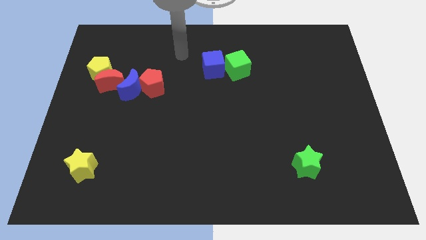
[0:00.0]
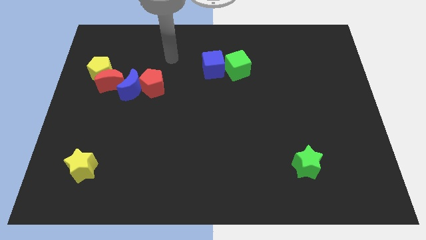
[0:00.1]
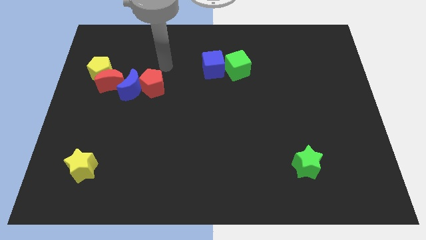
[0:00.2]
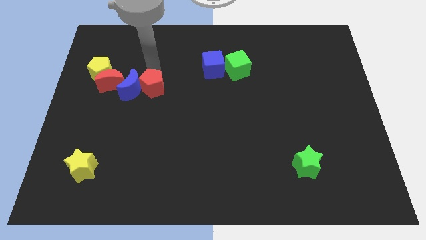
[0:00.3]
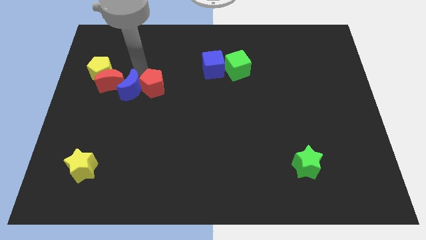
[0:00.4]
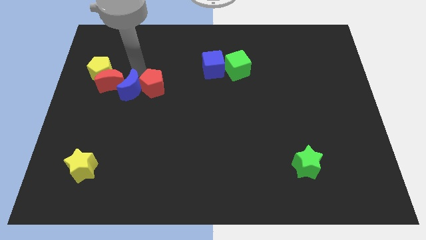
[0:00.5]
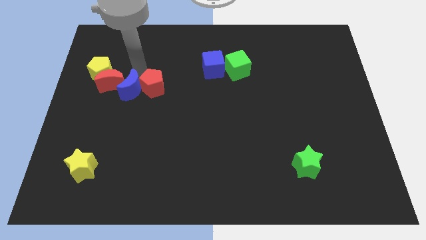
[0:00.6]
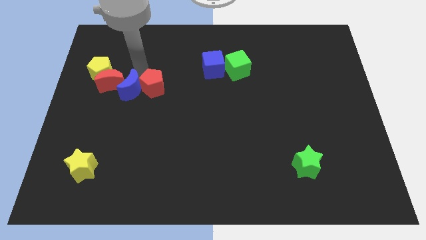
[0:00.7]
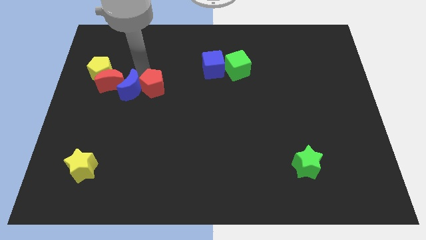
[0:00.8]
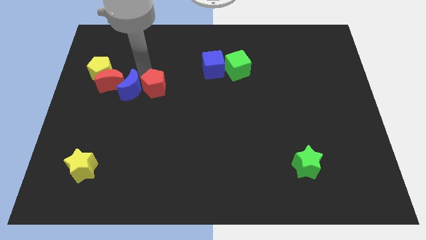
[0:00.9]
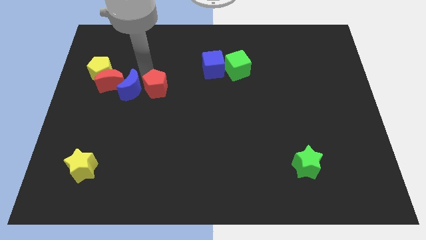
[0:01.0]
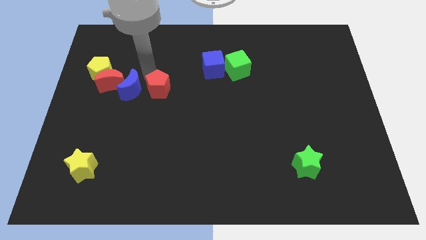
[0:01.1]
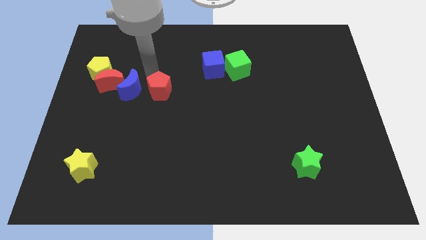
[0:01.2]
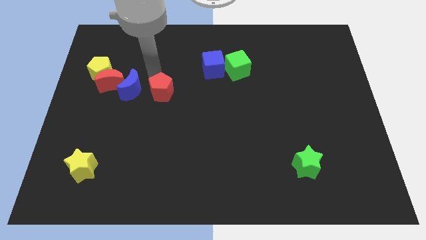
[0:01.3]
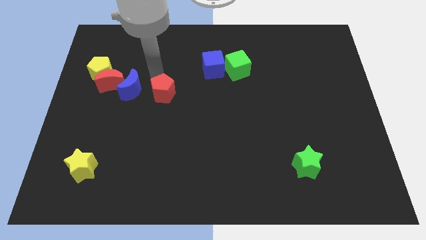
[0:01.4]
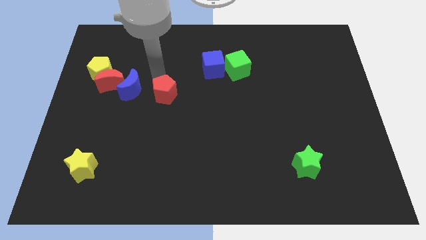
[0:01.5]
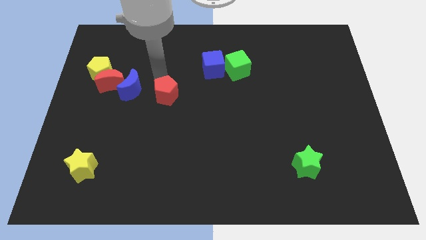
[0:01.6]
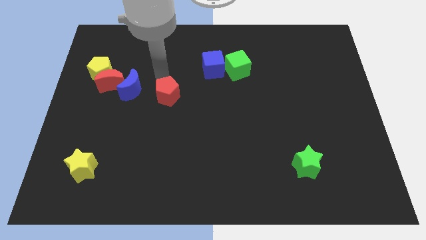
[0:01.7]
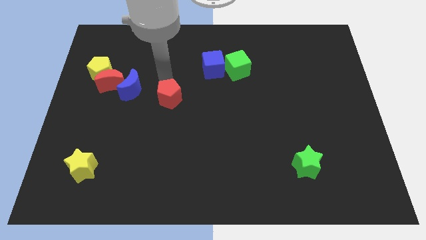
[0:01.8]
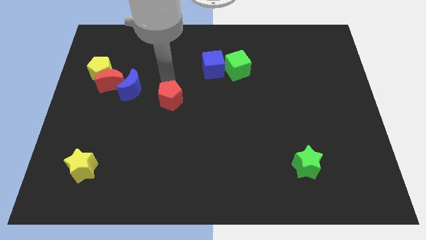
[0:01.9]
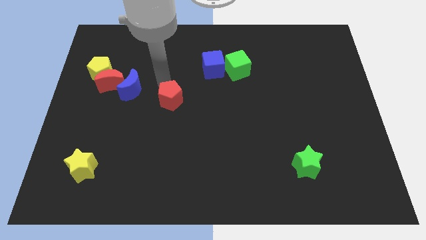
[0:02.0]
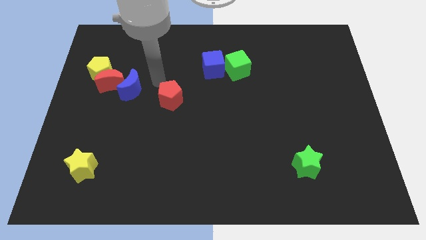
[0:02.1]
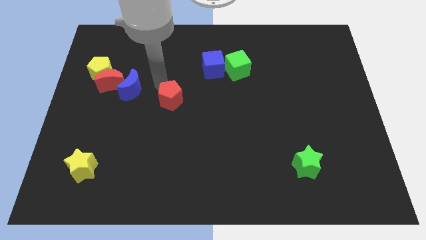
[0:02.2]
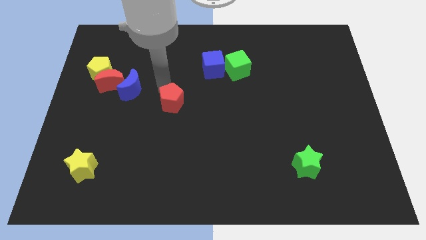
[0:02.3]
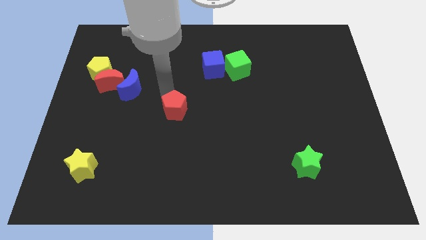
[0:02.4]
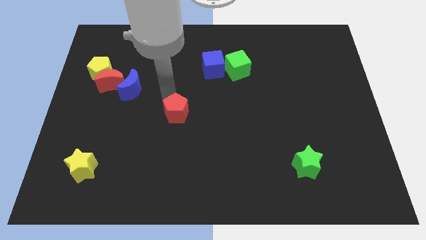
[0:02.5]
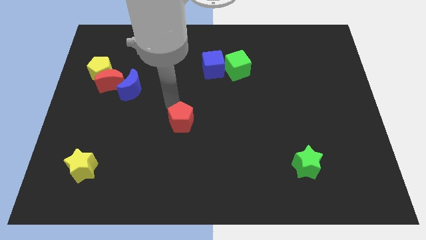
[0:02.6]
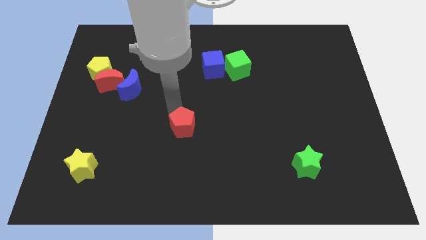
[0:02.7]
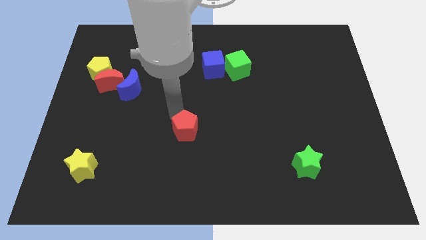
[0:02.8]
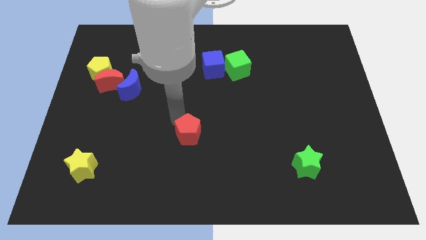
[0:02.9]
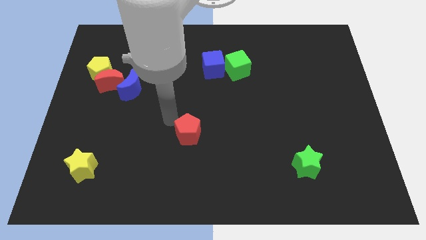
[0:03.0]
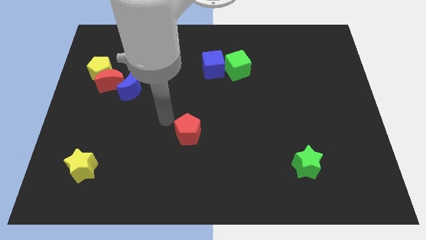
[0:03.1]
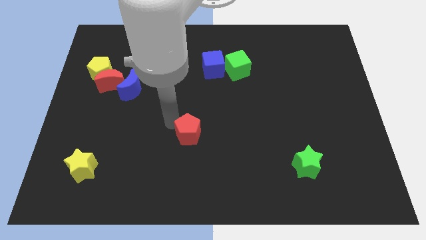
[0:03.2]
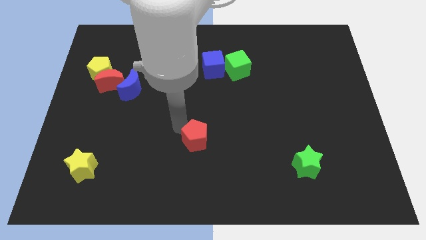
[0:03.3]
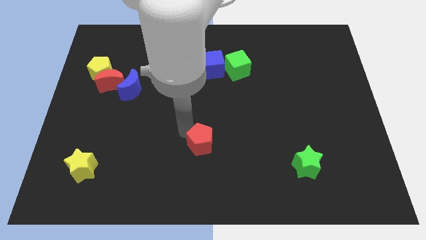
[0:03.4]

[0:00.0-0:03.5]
slide the red pentagon downwards and to the right

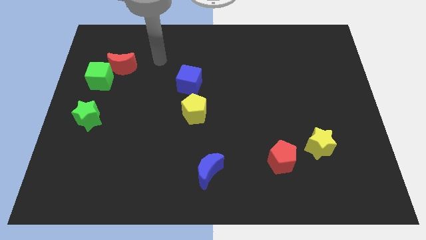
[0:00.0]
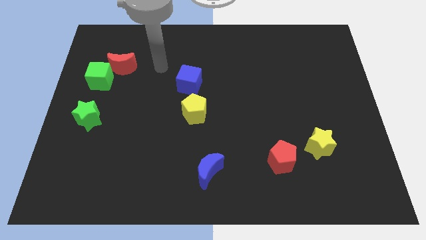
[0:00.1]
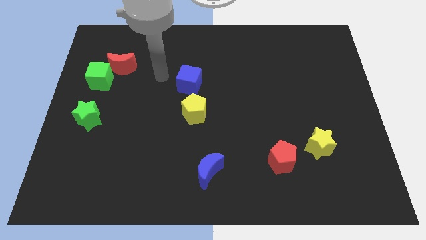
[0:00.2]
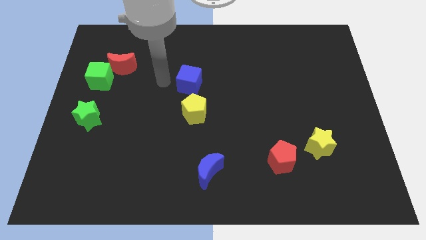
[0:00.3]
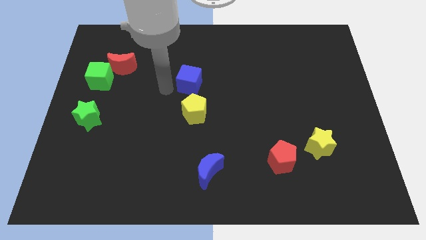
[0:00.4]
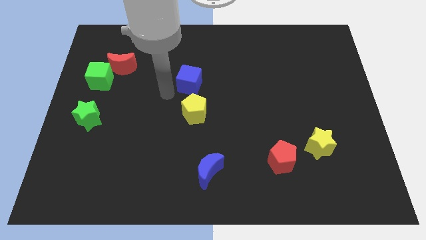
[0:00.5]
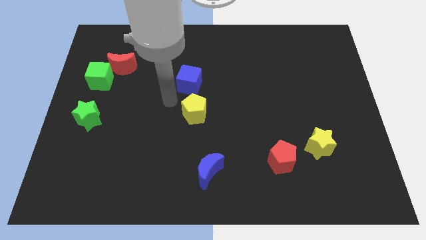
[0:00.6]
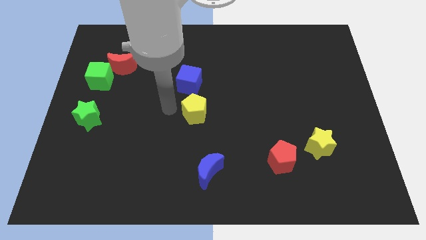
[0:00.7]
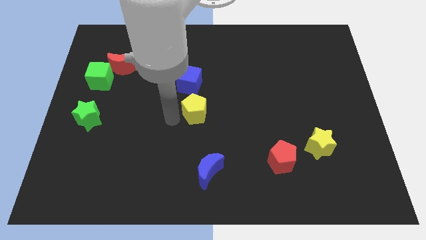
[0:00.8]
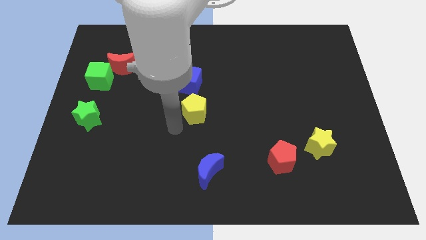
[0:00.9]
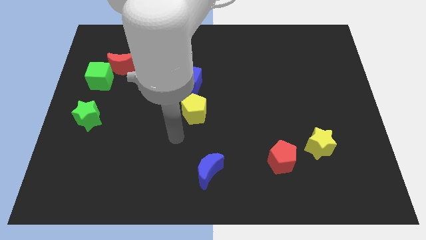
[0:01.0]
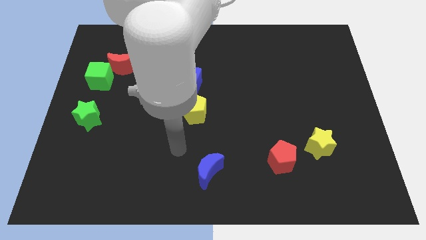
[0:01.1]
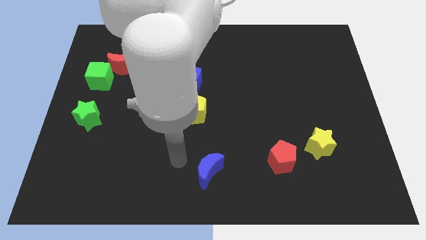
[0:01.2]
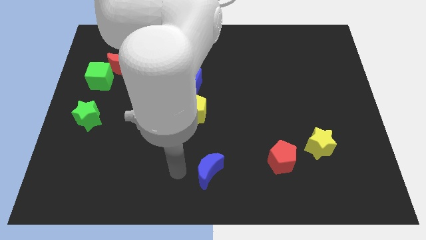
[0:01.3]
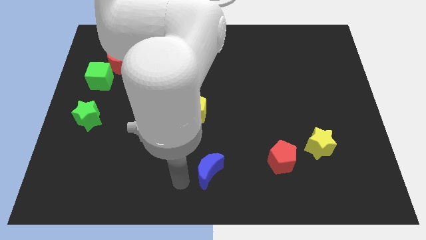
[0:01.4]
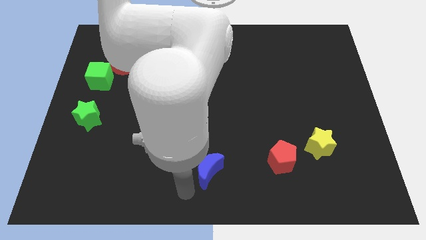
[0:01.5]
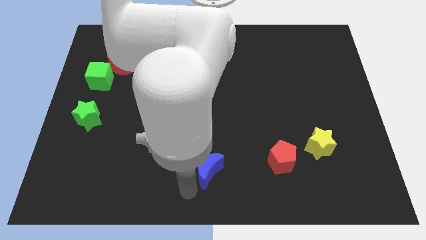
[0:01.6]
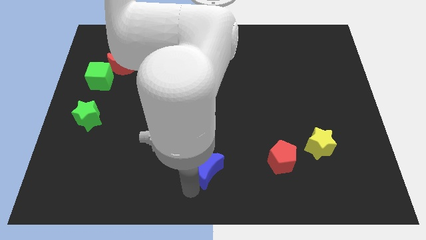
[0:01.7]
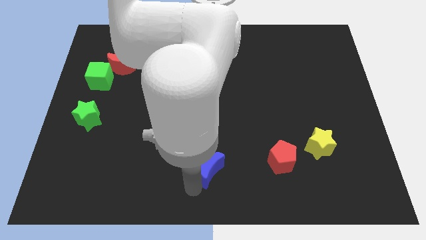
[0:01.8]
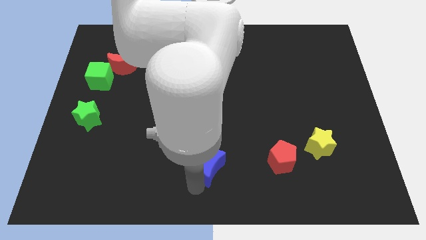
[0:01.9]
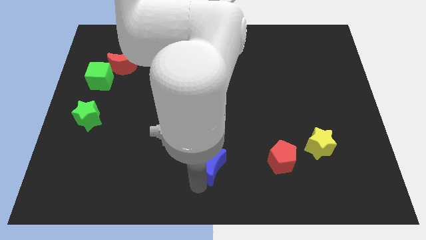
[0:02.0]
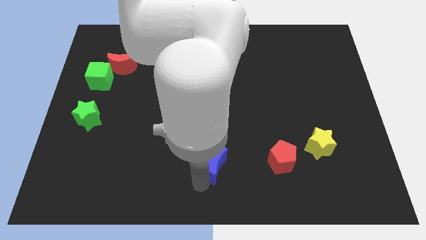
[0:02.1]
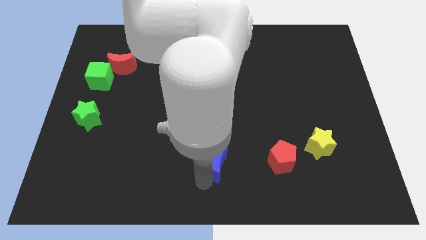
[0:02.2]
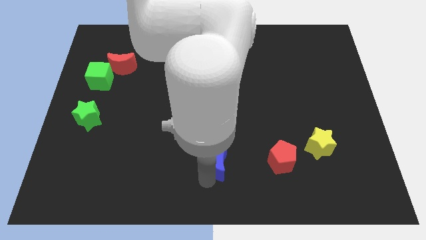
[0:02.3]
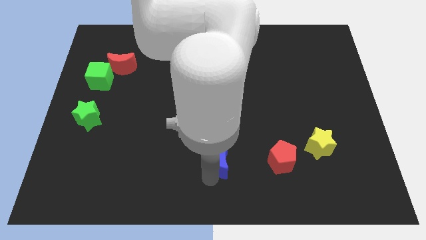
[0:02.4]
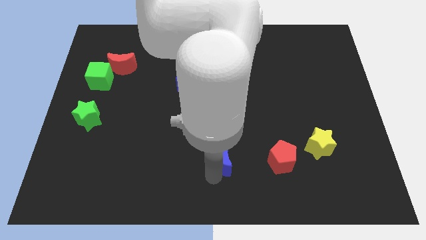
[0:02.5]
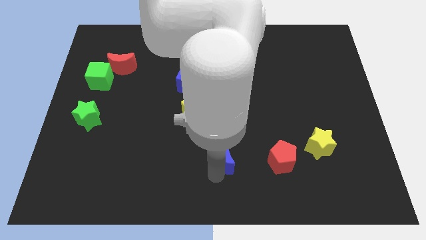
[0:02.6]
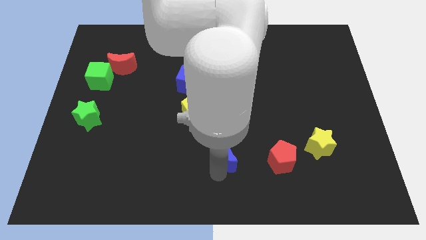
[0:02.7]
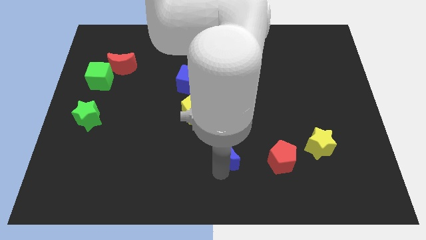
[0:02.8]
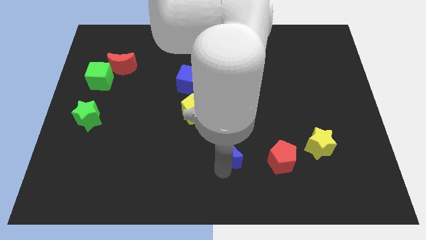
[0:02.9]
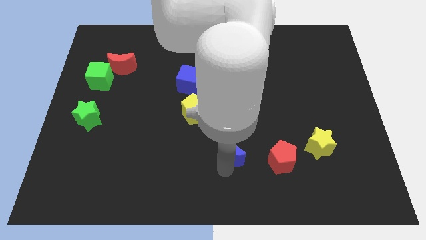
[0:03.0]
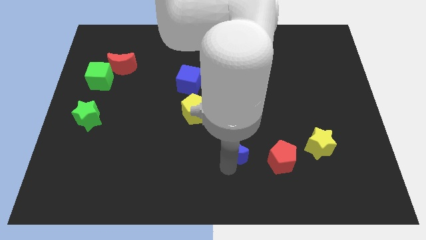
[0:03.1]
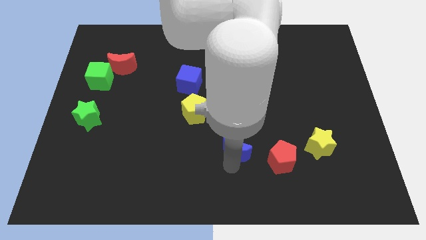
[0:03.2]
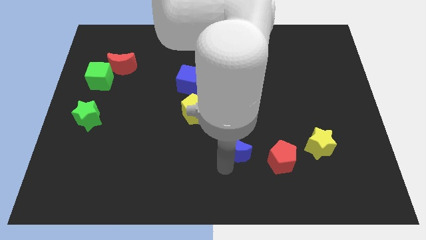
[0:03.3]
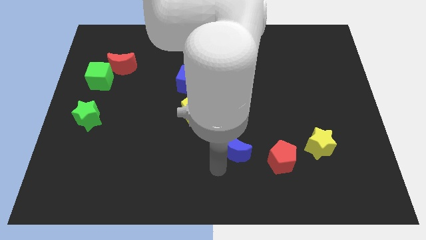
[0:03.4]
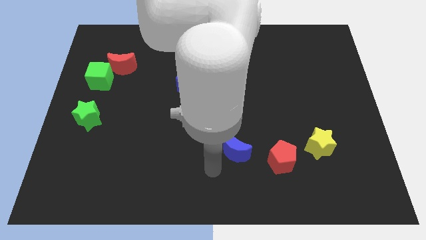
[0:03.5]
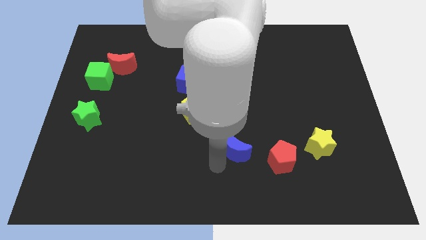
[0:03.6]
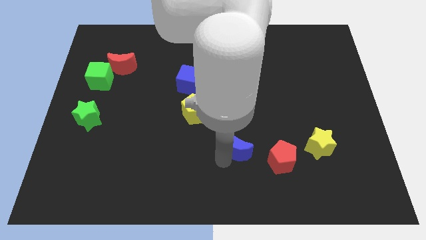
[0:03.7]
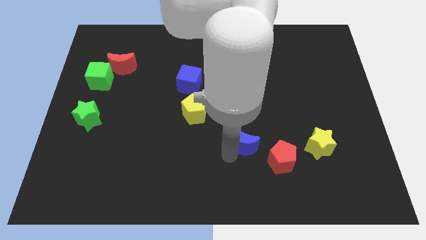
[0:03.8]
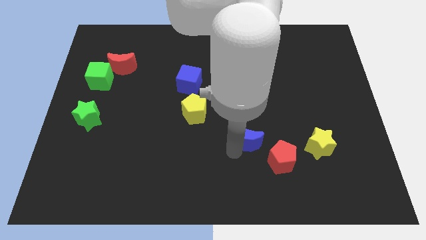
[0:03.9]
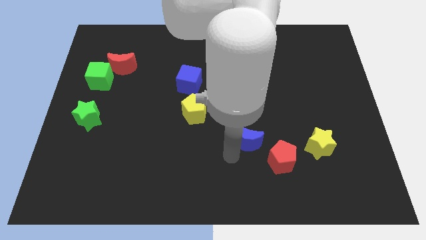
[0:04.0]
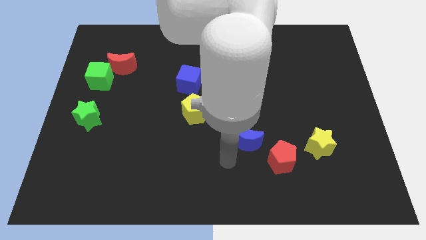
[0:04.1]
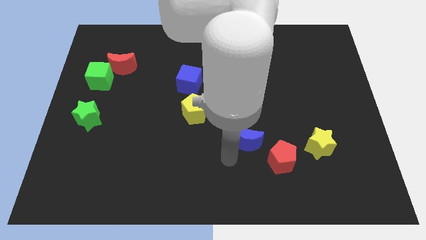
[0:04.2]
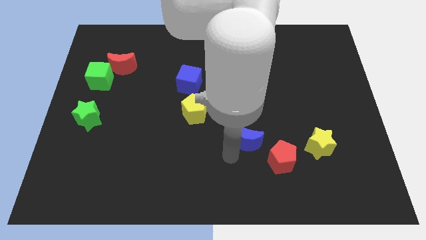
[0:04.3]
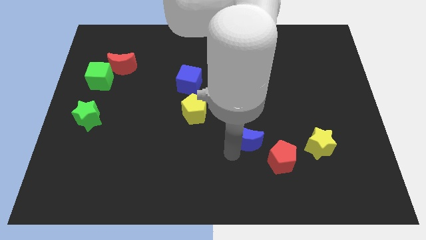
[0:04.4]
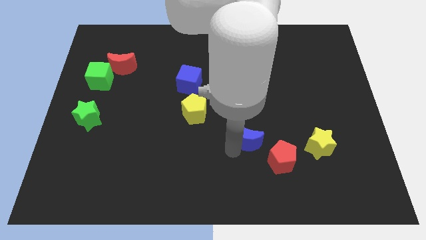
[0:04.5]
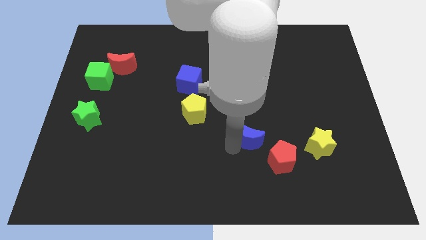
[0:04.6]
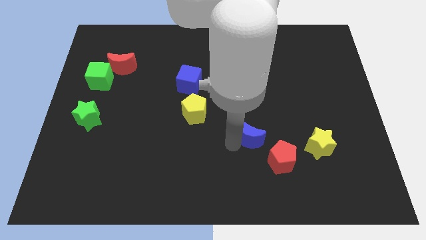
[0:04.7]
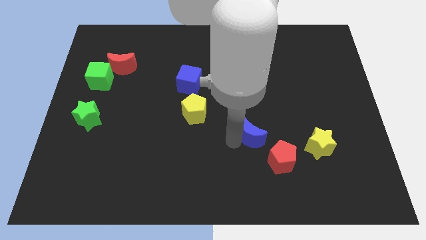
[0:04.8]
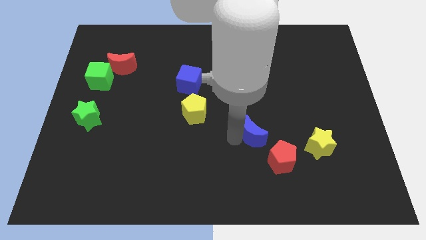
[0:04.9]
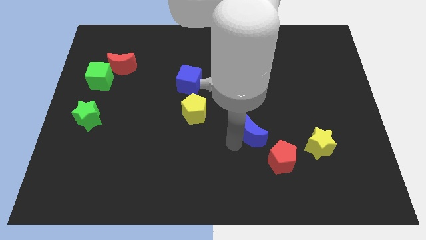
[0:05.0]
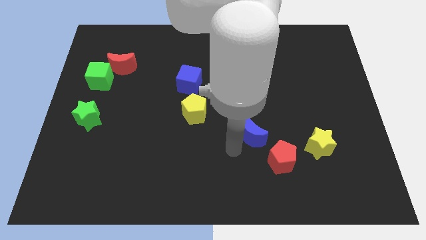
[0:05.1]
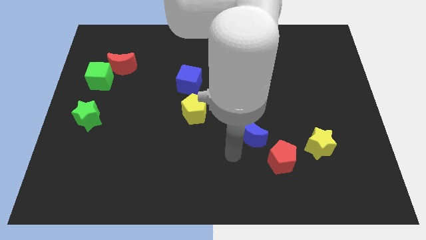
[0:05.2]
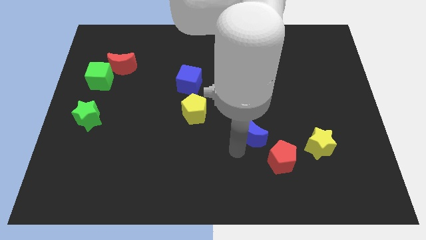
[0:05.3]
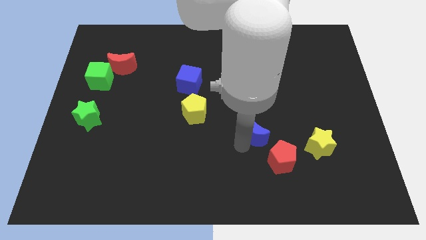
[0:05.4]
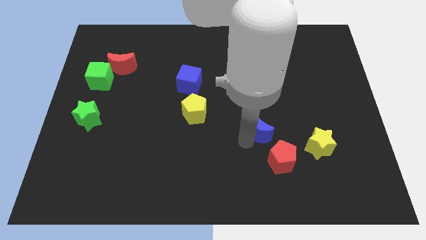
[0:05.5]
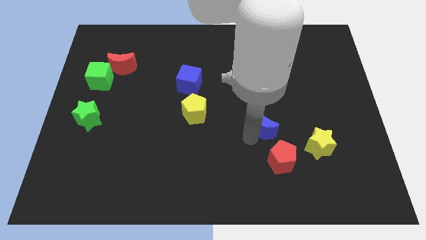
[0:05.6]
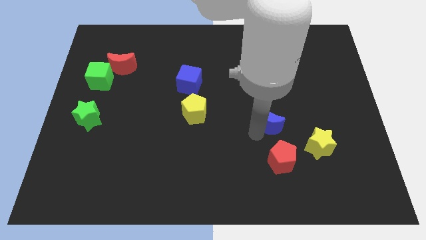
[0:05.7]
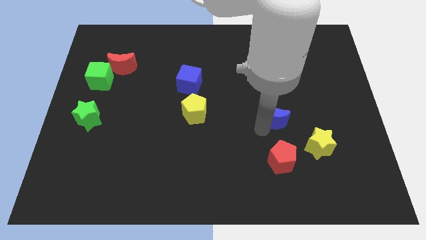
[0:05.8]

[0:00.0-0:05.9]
push the blue moon up and then to the right
